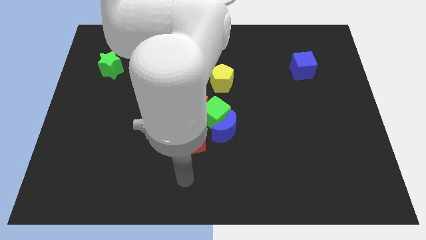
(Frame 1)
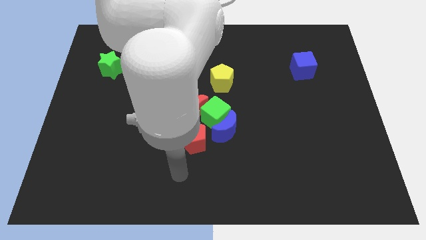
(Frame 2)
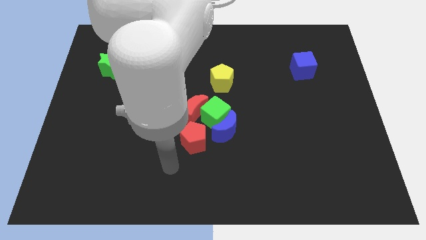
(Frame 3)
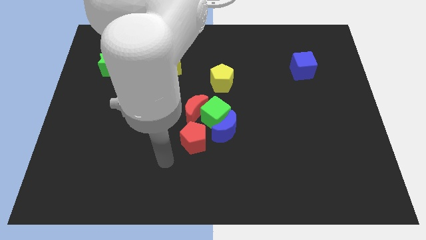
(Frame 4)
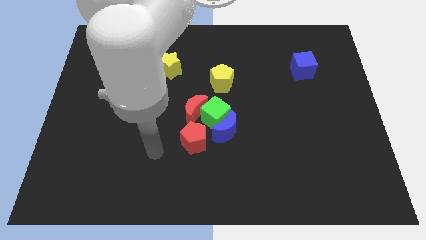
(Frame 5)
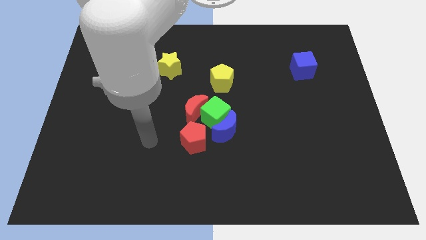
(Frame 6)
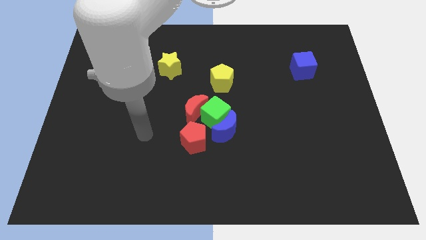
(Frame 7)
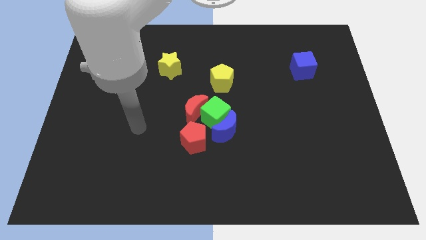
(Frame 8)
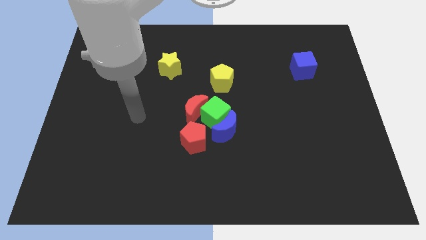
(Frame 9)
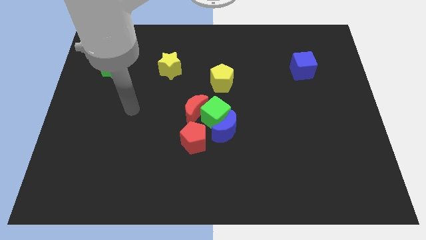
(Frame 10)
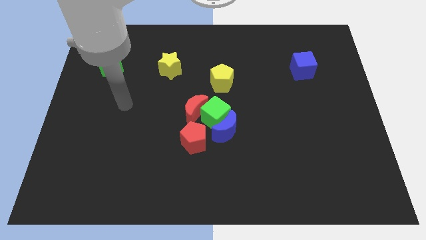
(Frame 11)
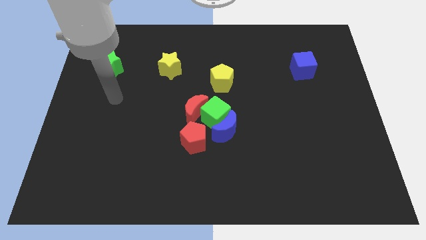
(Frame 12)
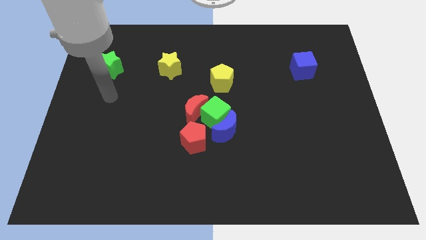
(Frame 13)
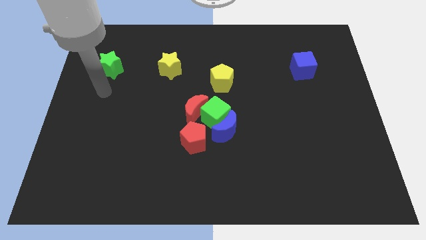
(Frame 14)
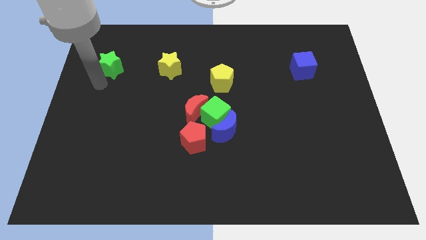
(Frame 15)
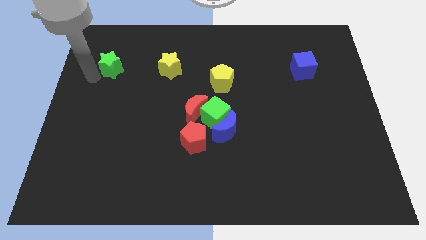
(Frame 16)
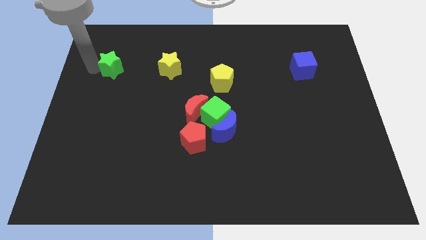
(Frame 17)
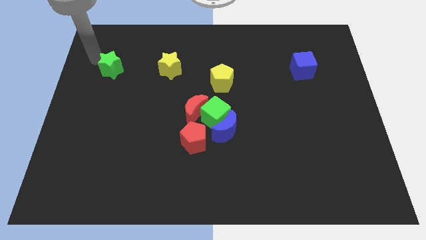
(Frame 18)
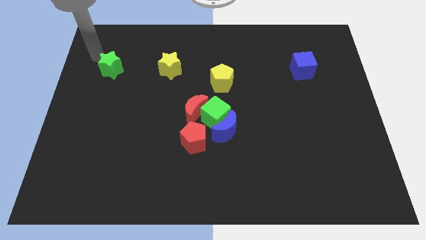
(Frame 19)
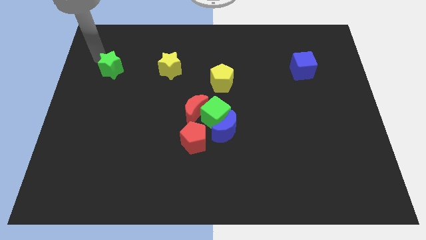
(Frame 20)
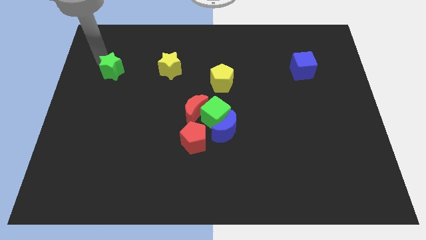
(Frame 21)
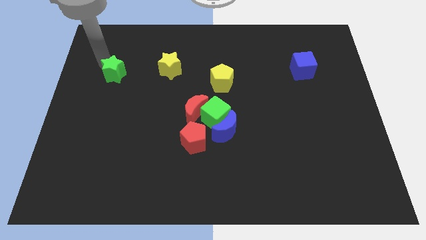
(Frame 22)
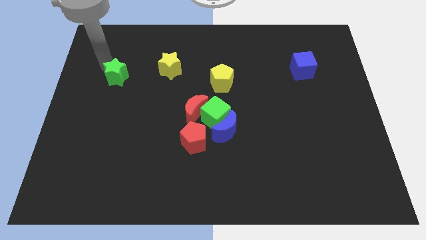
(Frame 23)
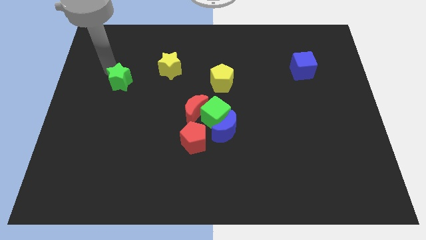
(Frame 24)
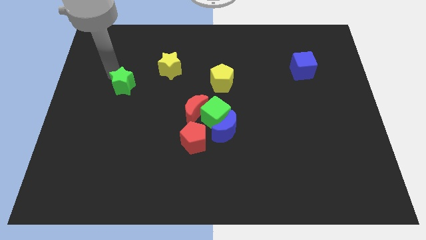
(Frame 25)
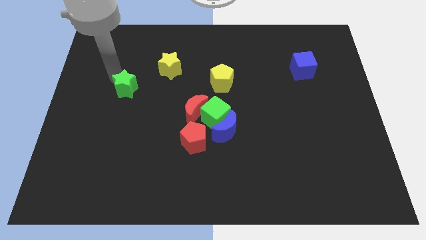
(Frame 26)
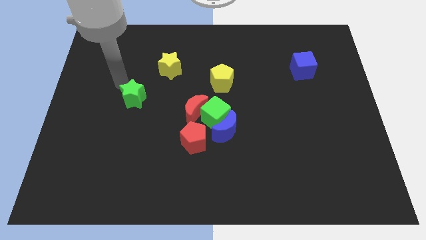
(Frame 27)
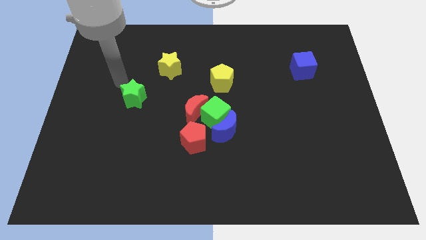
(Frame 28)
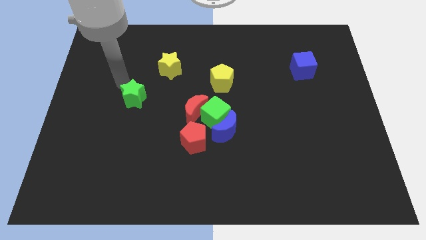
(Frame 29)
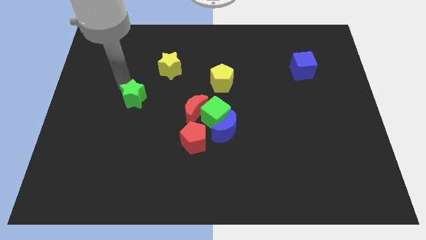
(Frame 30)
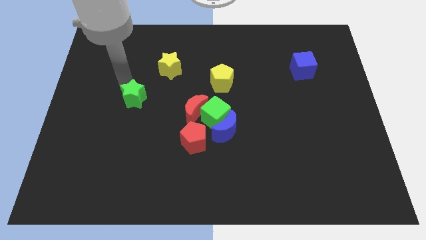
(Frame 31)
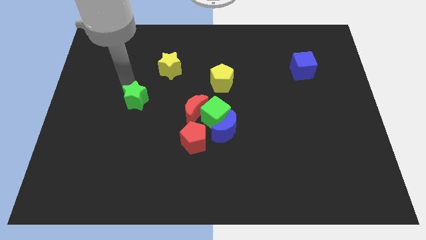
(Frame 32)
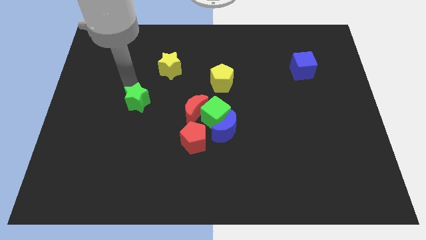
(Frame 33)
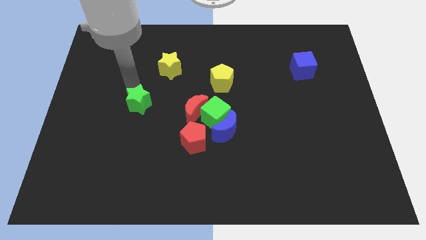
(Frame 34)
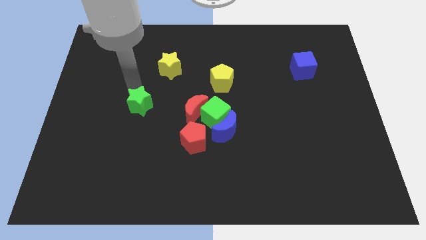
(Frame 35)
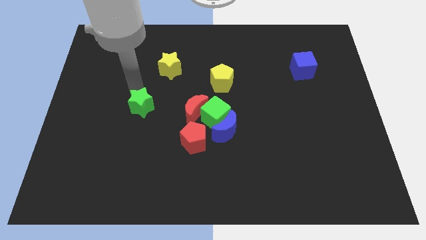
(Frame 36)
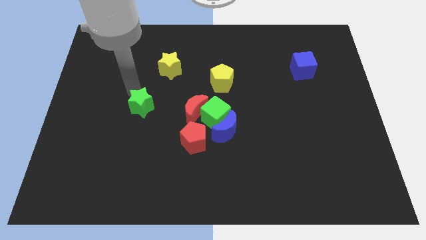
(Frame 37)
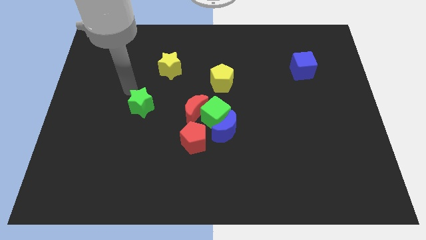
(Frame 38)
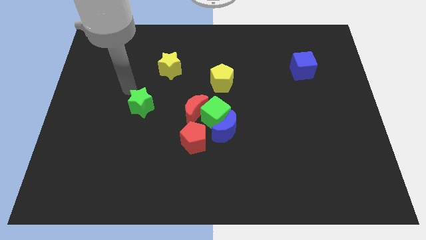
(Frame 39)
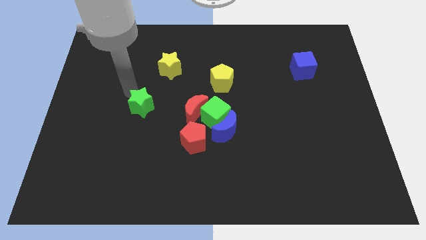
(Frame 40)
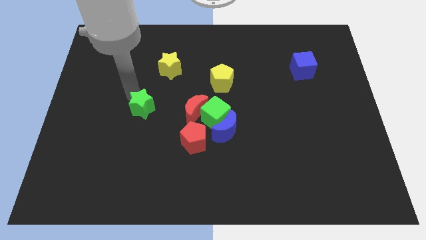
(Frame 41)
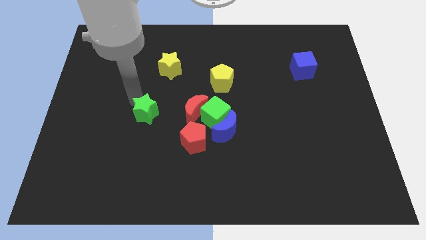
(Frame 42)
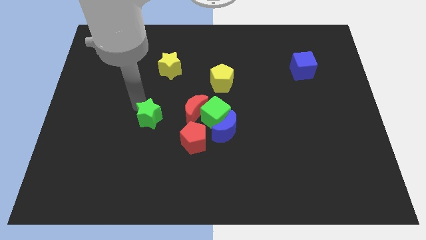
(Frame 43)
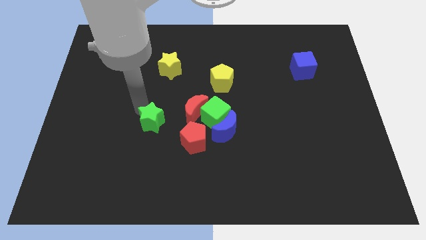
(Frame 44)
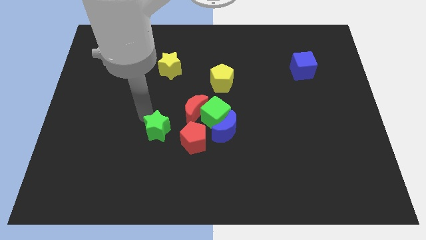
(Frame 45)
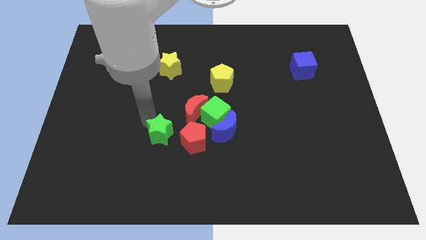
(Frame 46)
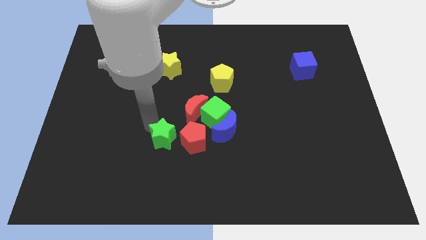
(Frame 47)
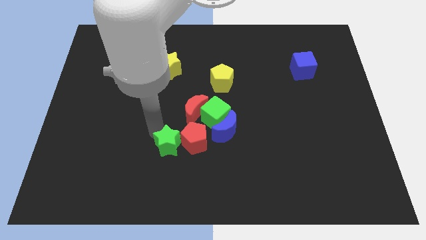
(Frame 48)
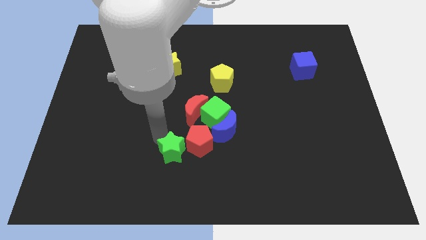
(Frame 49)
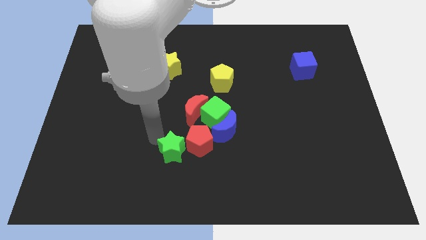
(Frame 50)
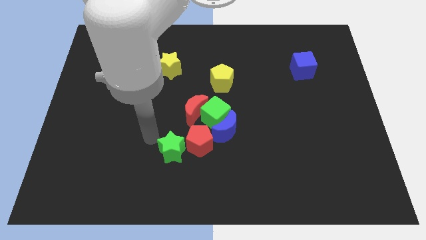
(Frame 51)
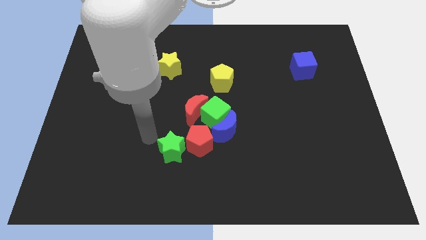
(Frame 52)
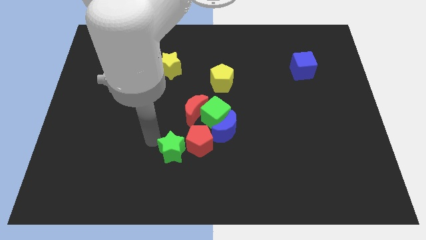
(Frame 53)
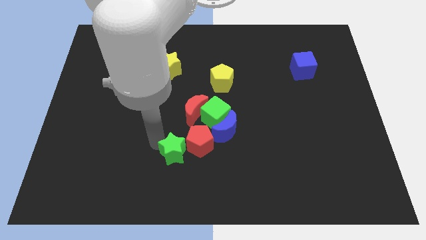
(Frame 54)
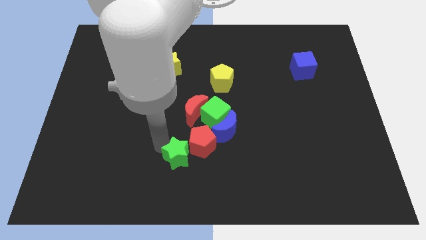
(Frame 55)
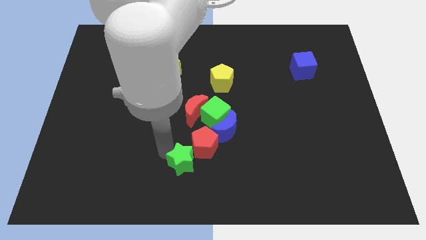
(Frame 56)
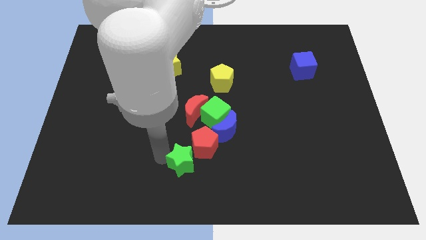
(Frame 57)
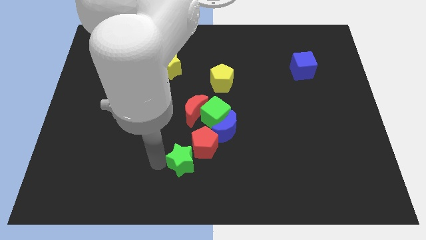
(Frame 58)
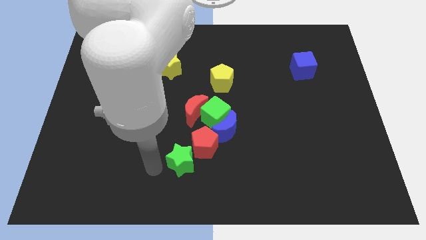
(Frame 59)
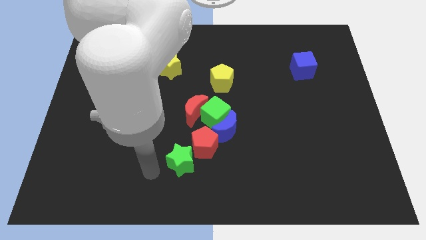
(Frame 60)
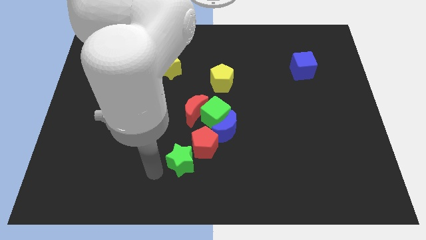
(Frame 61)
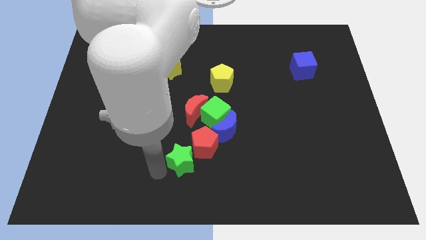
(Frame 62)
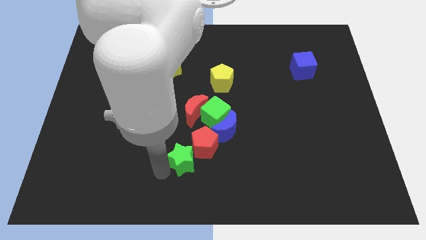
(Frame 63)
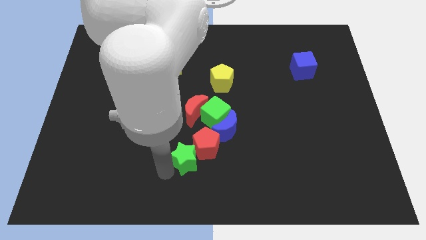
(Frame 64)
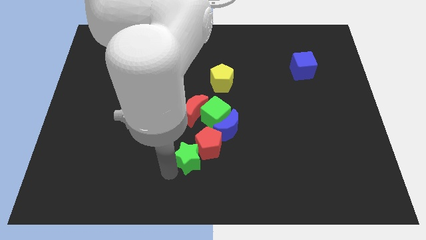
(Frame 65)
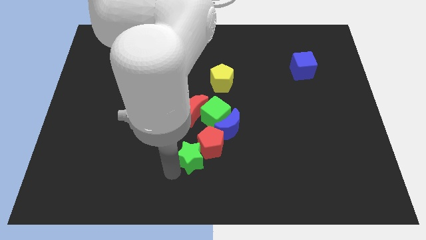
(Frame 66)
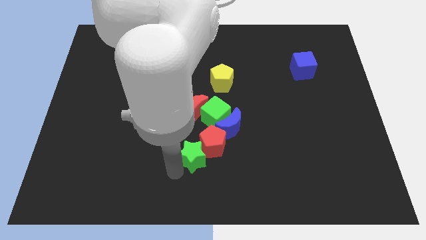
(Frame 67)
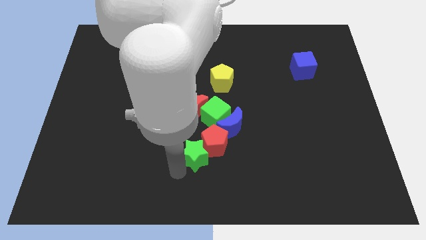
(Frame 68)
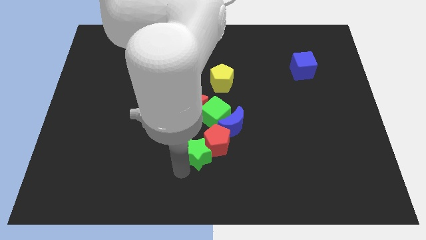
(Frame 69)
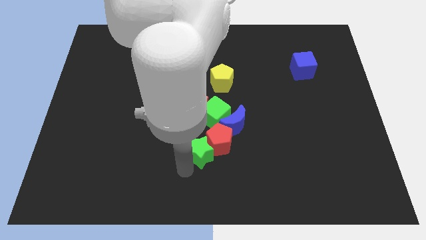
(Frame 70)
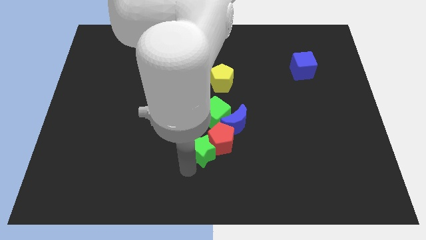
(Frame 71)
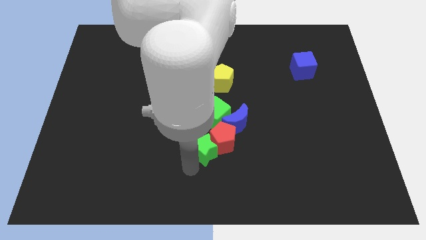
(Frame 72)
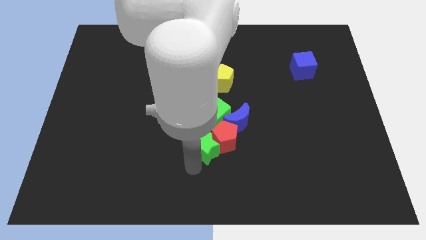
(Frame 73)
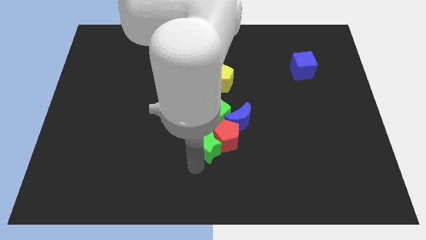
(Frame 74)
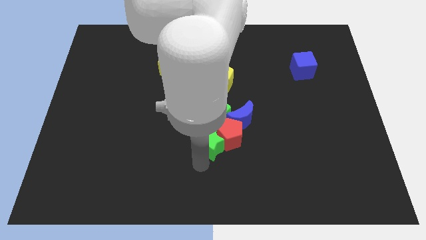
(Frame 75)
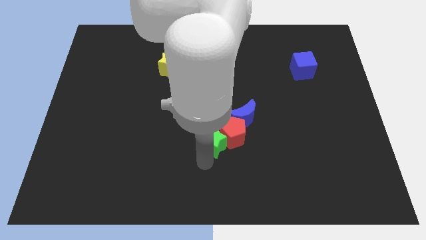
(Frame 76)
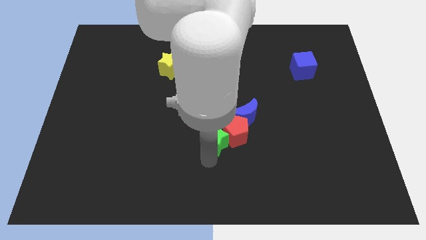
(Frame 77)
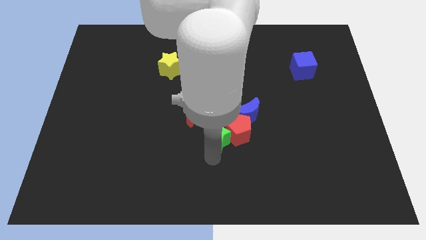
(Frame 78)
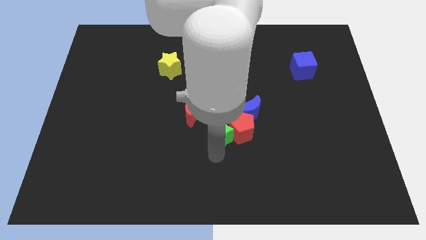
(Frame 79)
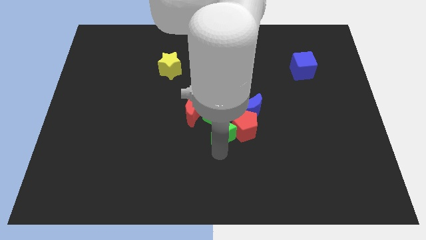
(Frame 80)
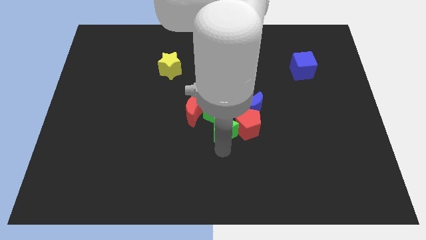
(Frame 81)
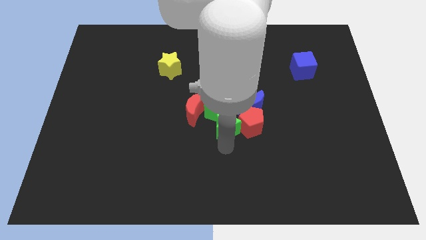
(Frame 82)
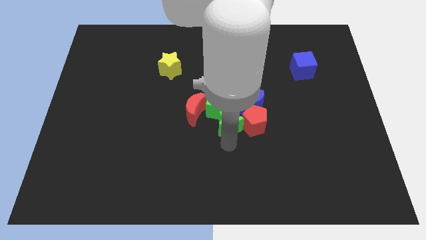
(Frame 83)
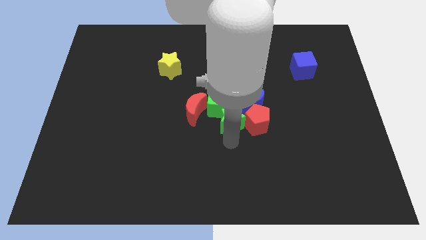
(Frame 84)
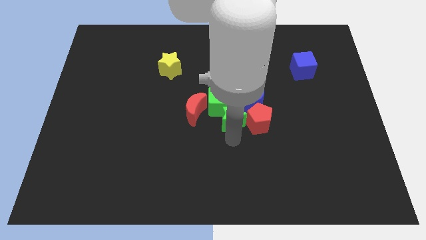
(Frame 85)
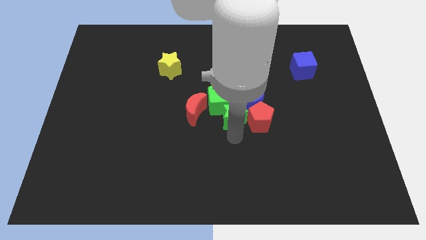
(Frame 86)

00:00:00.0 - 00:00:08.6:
move the green star next to the blue moon
